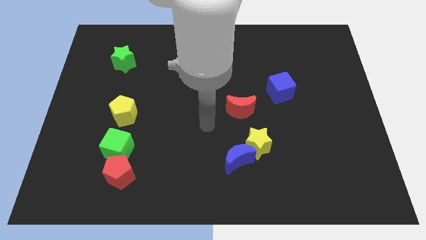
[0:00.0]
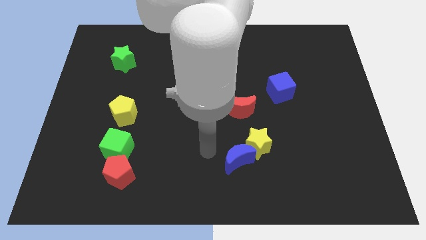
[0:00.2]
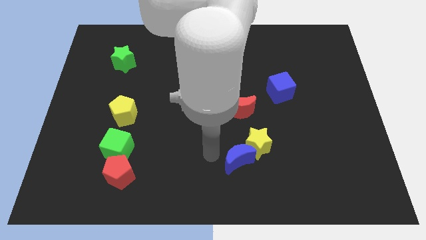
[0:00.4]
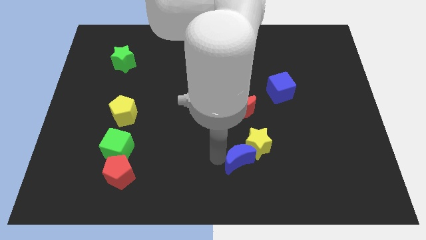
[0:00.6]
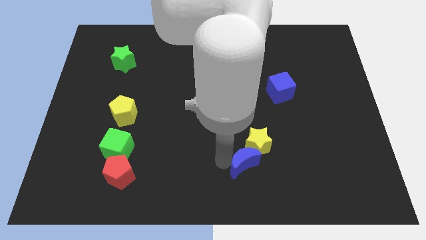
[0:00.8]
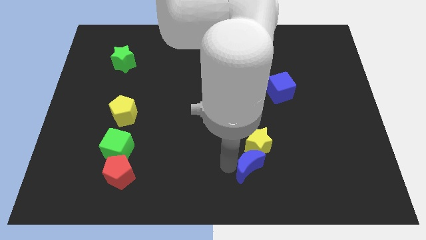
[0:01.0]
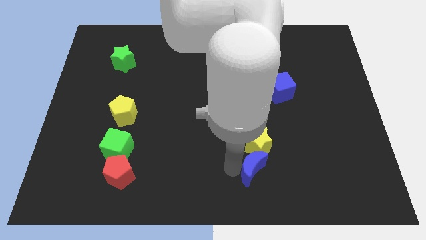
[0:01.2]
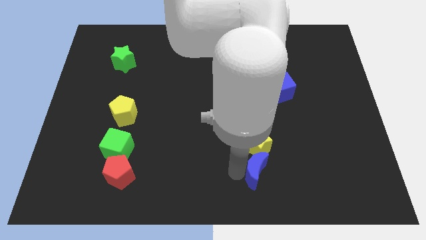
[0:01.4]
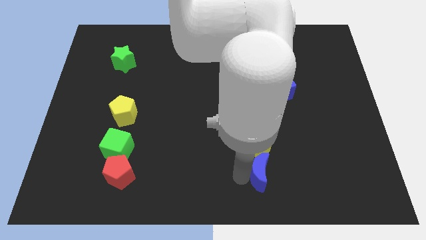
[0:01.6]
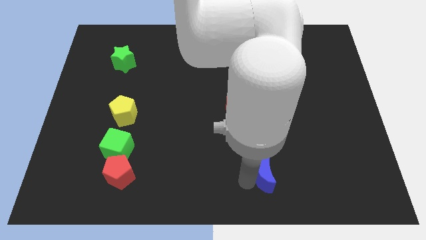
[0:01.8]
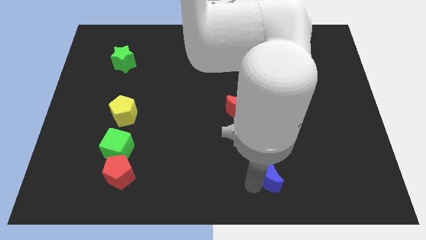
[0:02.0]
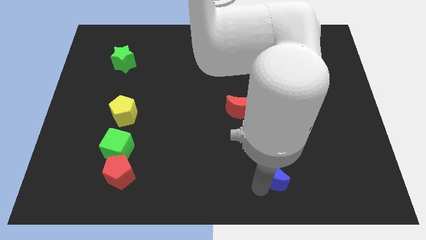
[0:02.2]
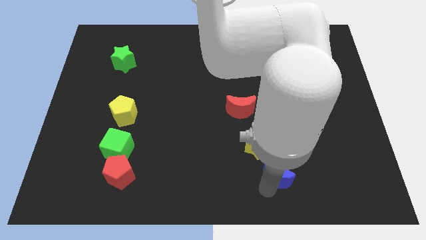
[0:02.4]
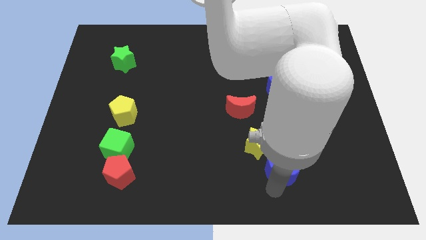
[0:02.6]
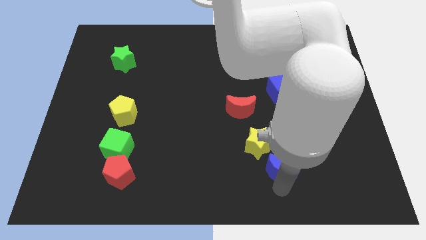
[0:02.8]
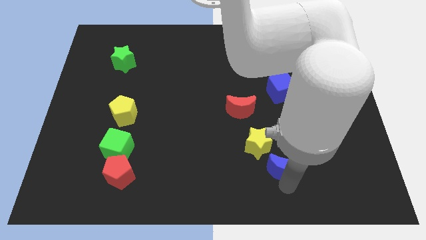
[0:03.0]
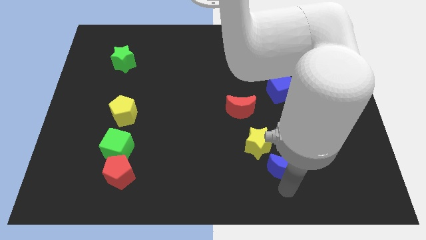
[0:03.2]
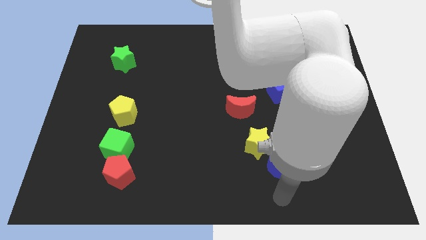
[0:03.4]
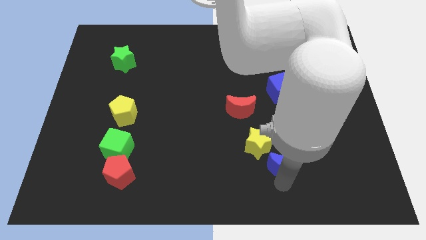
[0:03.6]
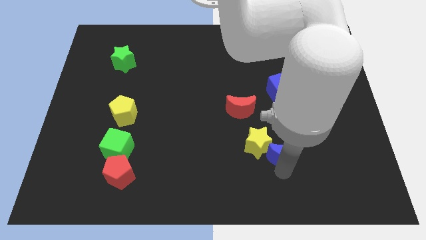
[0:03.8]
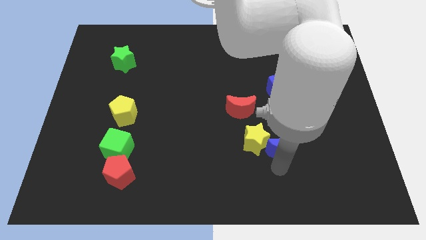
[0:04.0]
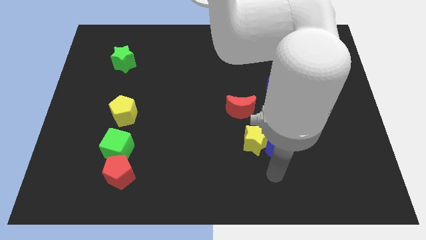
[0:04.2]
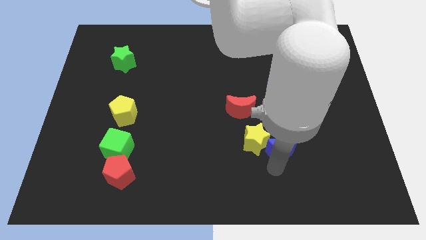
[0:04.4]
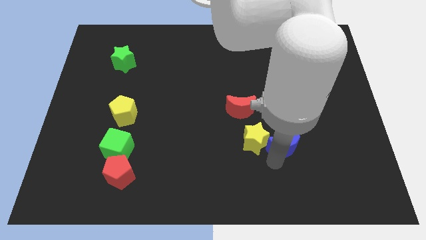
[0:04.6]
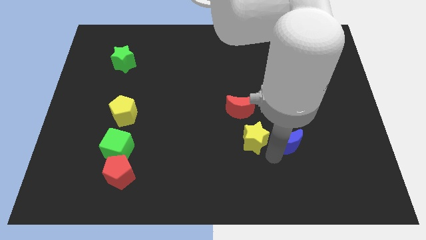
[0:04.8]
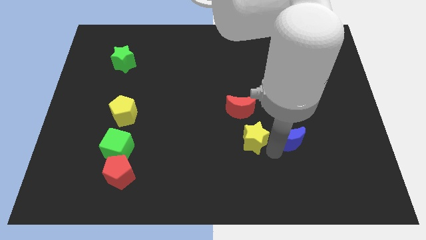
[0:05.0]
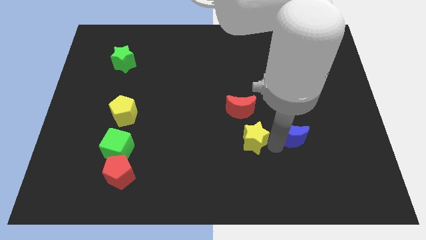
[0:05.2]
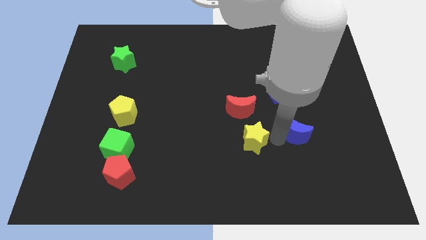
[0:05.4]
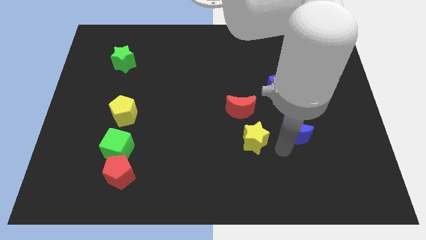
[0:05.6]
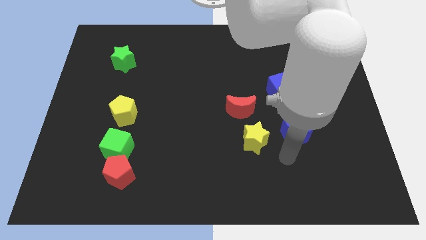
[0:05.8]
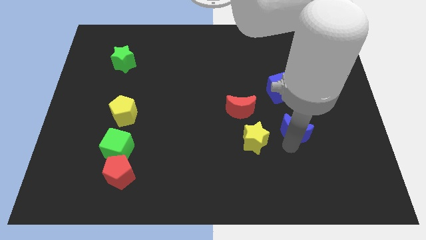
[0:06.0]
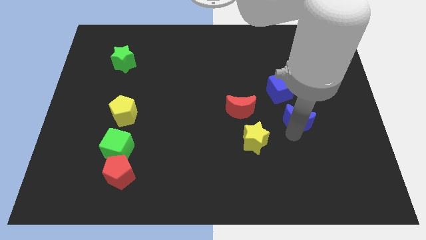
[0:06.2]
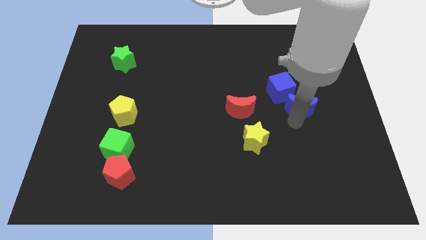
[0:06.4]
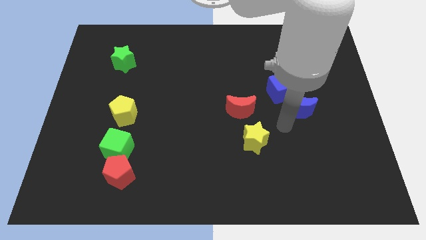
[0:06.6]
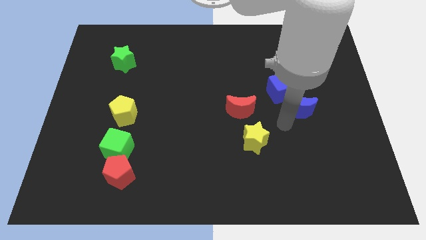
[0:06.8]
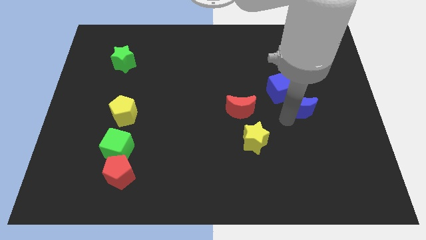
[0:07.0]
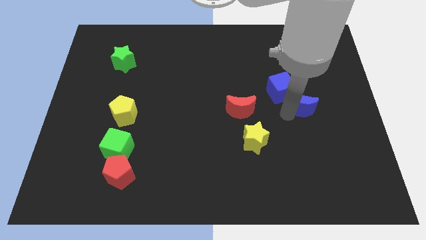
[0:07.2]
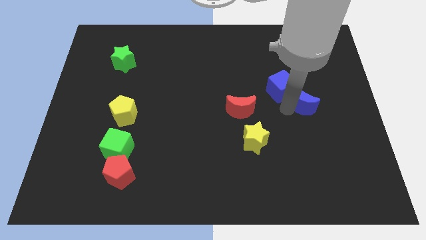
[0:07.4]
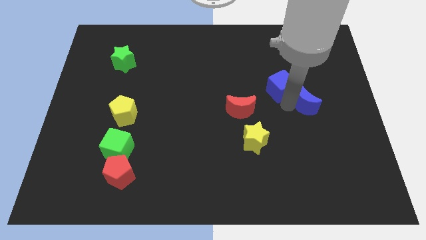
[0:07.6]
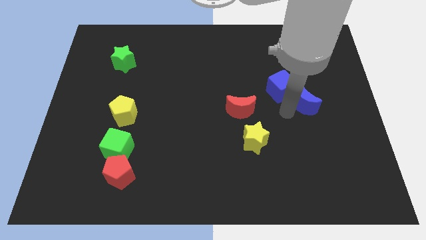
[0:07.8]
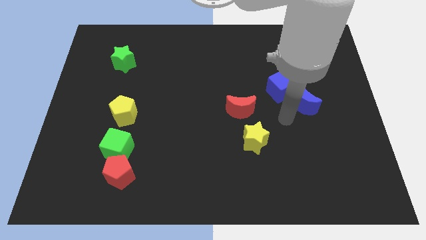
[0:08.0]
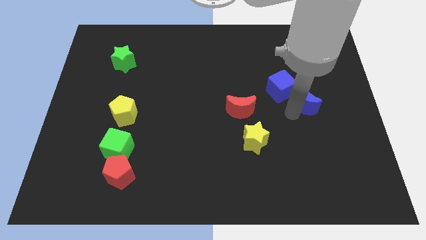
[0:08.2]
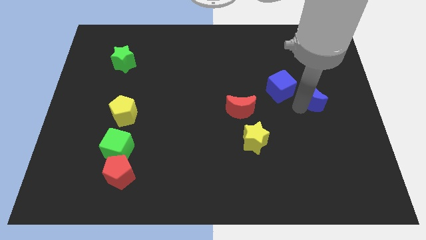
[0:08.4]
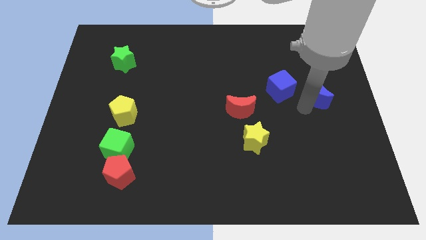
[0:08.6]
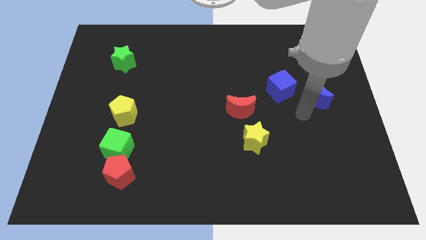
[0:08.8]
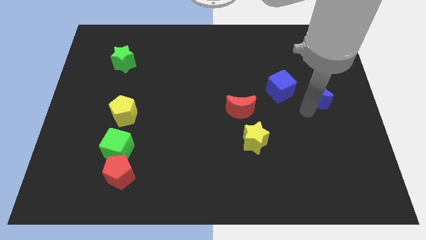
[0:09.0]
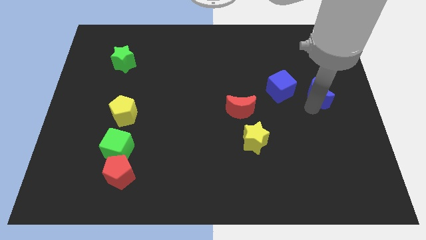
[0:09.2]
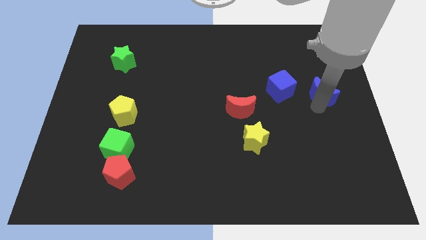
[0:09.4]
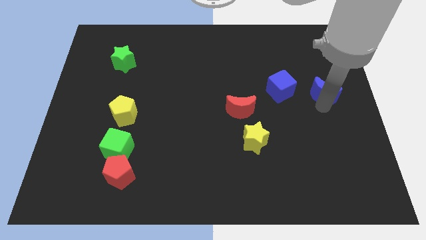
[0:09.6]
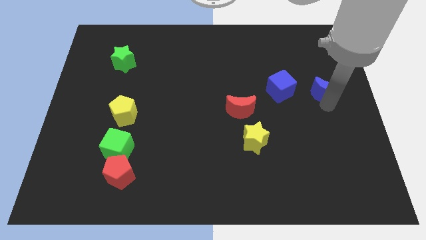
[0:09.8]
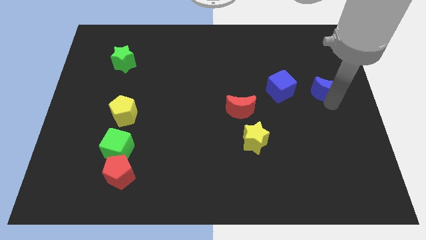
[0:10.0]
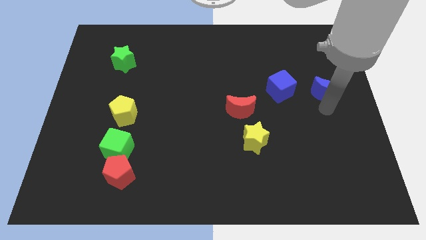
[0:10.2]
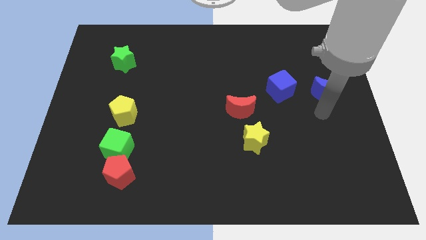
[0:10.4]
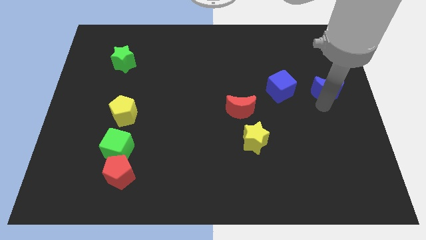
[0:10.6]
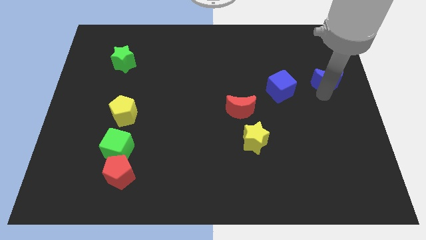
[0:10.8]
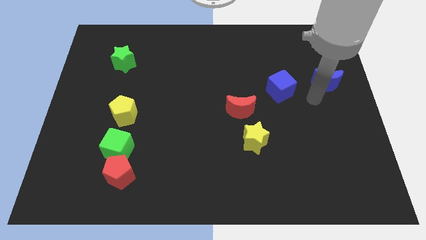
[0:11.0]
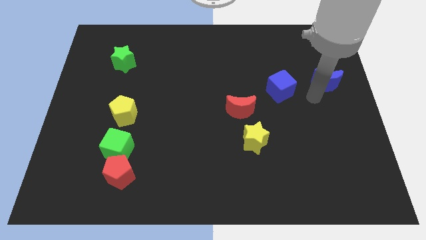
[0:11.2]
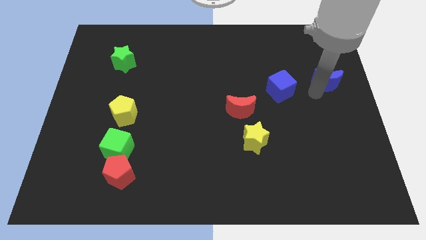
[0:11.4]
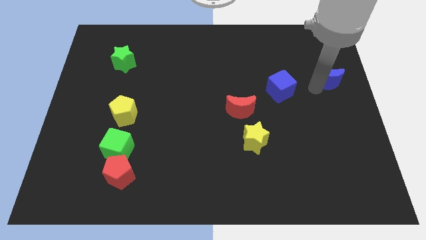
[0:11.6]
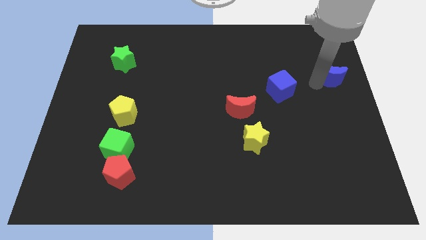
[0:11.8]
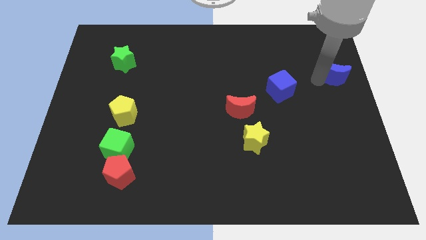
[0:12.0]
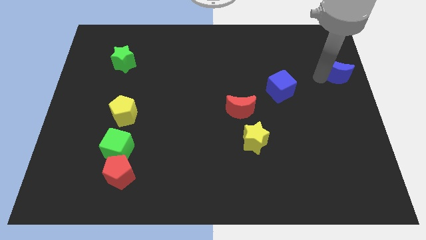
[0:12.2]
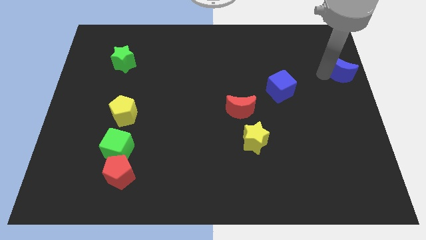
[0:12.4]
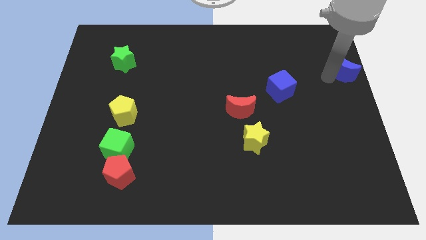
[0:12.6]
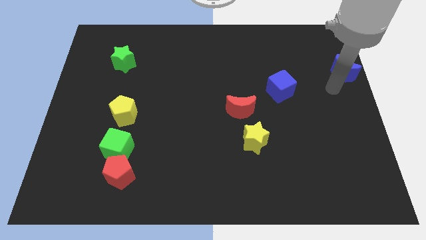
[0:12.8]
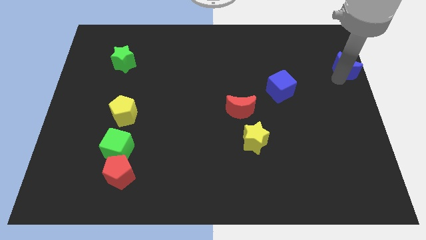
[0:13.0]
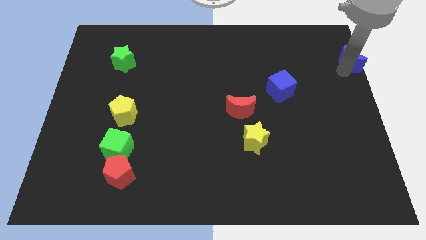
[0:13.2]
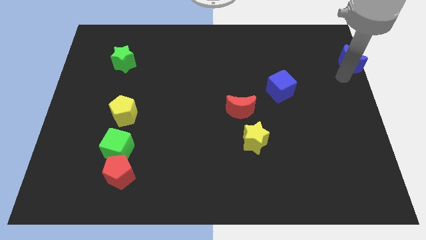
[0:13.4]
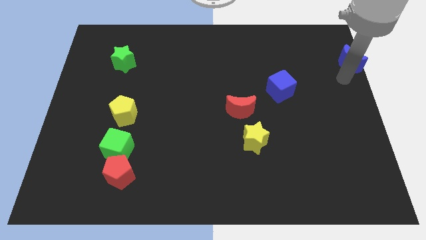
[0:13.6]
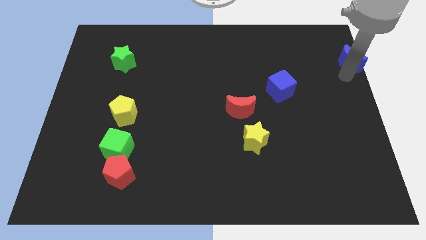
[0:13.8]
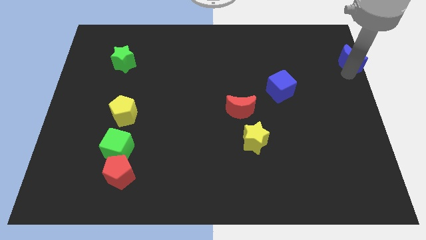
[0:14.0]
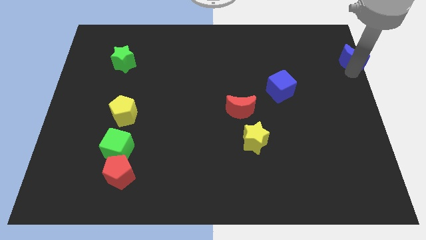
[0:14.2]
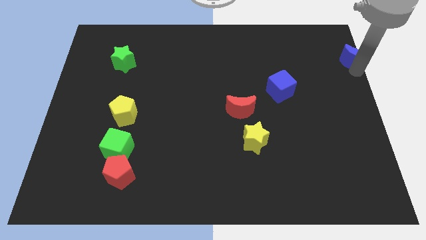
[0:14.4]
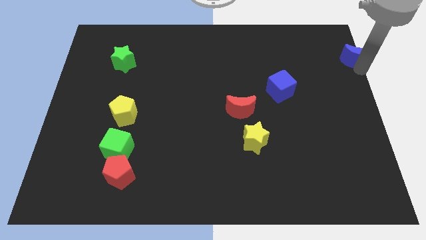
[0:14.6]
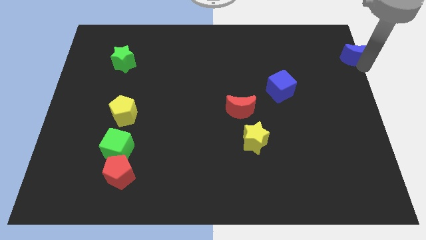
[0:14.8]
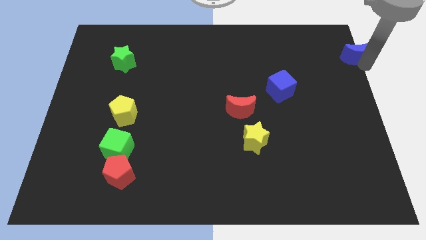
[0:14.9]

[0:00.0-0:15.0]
move the blue moon to the upper right corner
